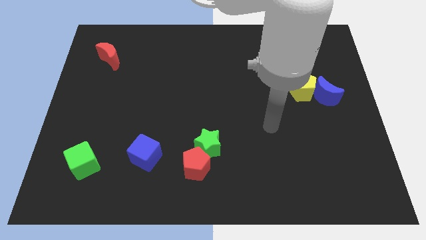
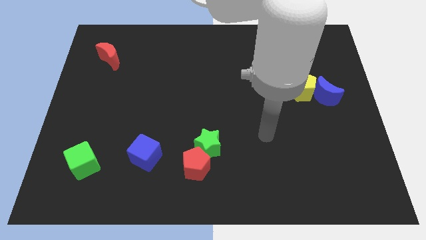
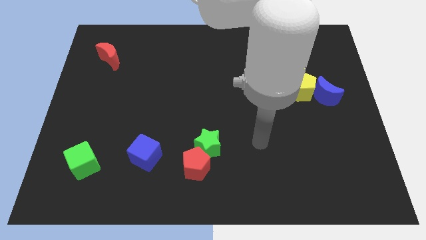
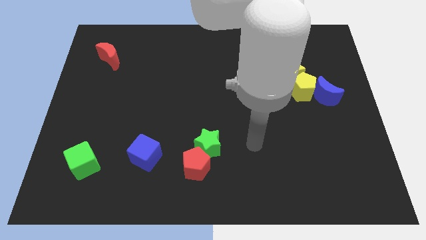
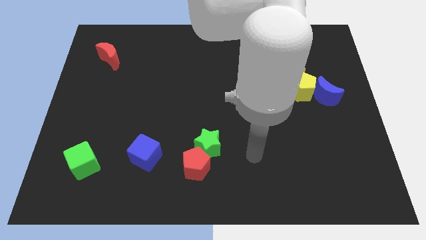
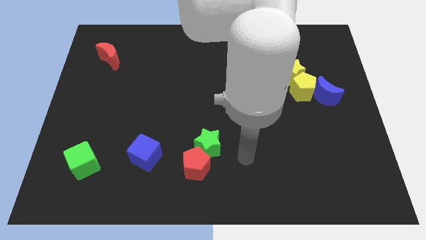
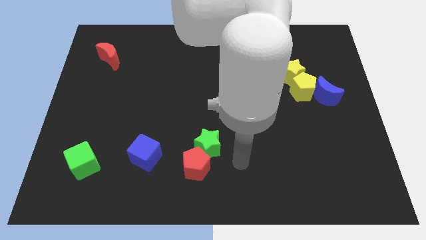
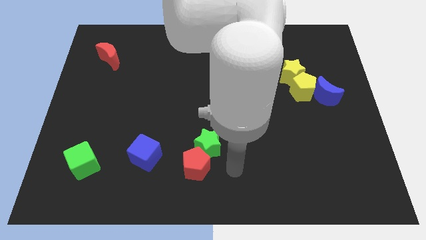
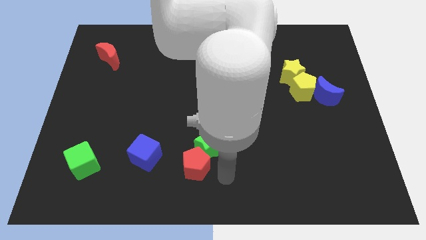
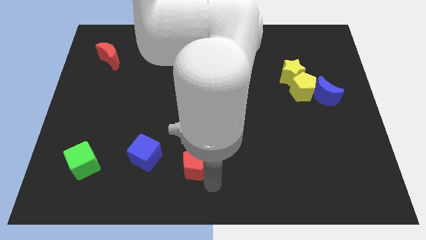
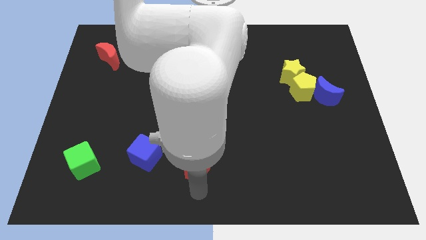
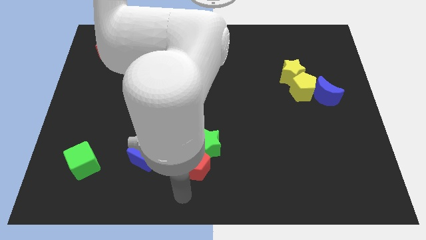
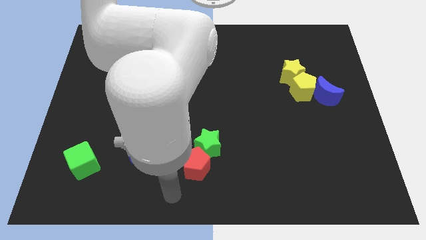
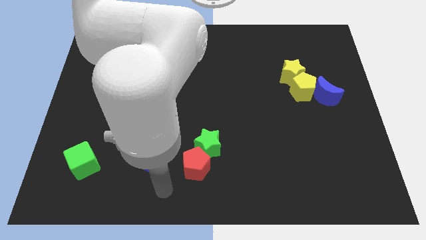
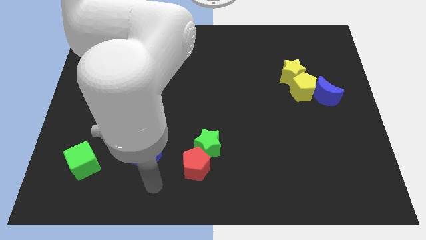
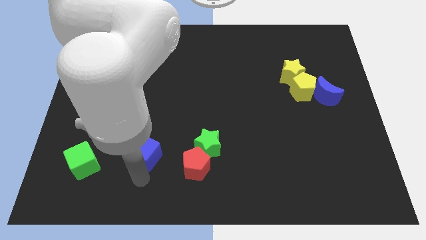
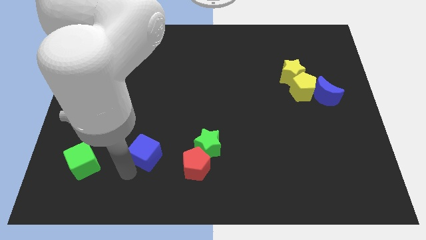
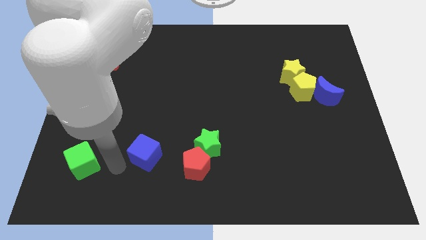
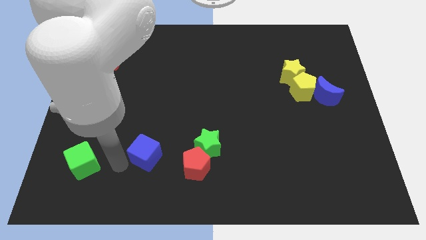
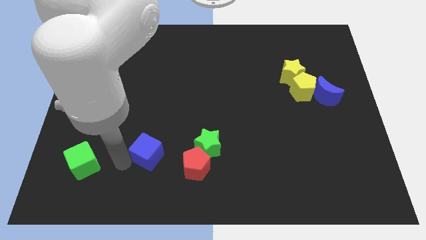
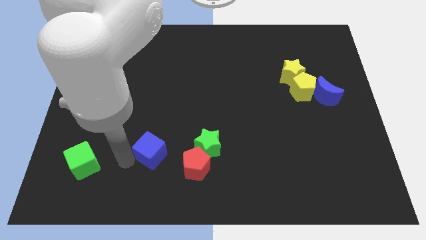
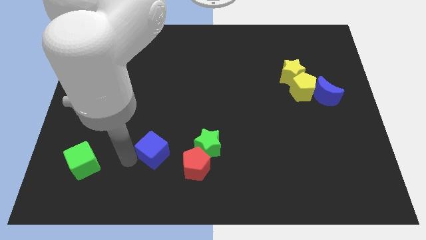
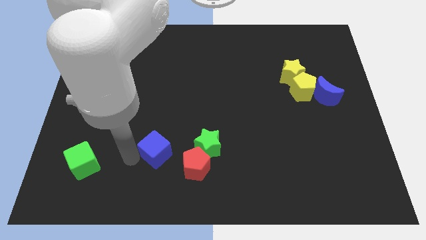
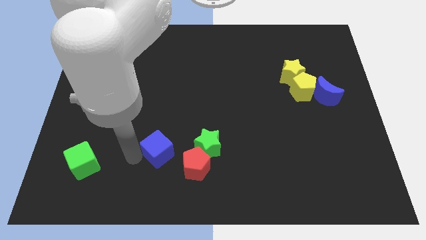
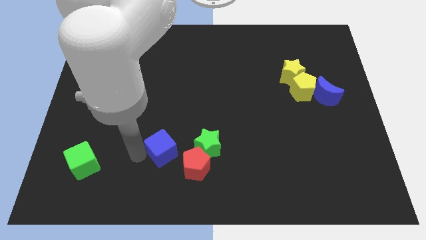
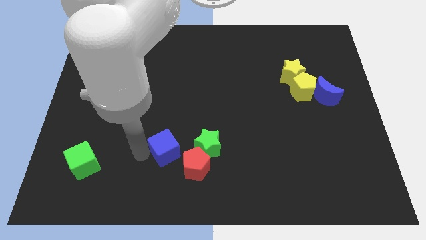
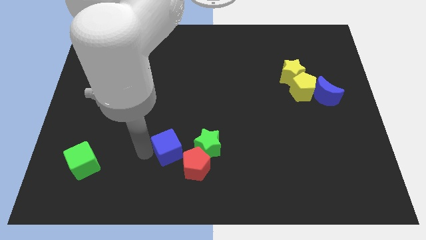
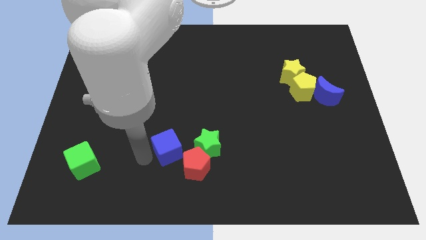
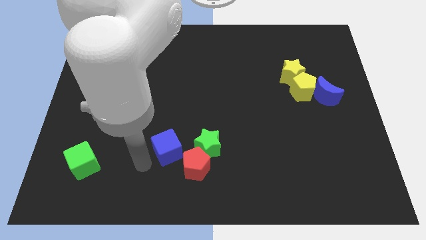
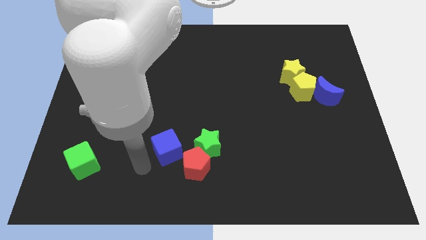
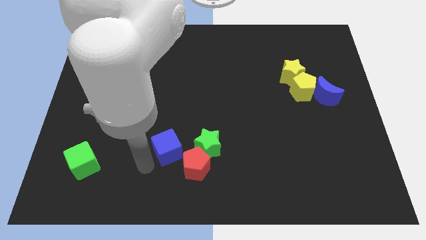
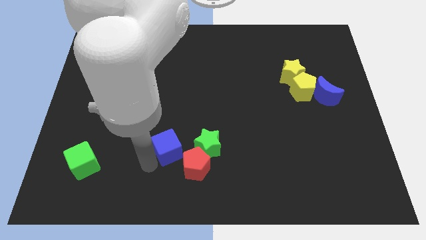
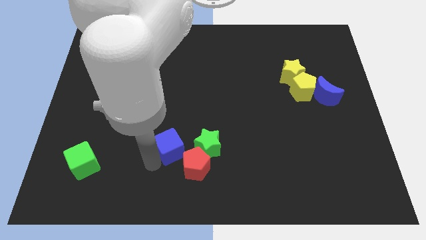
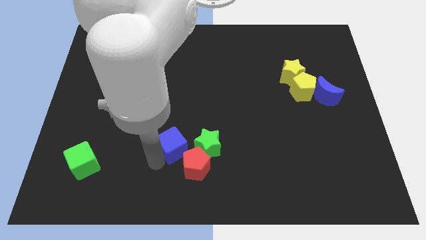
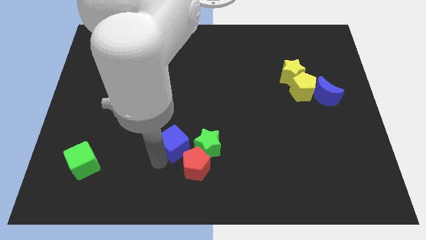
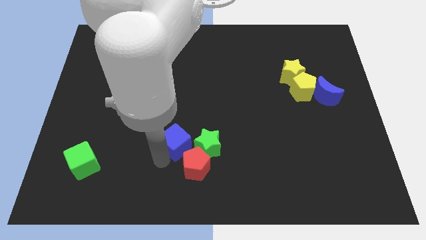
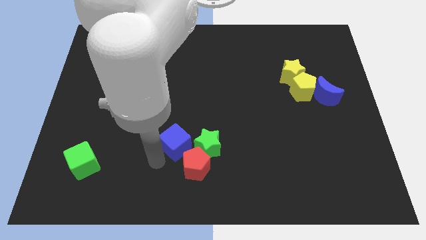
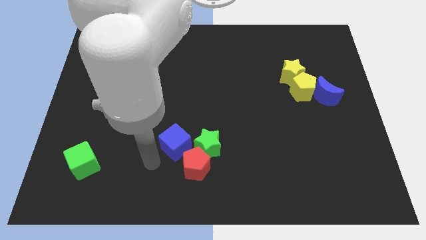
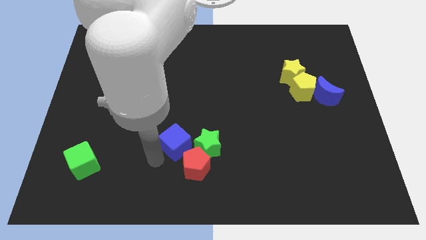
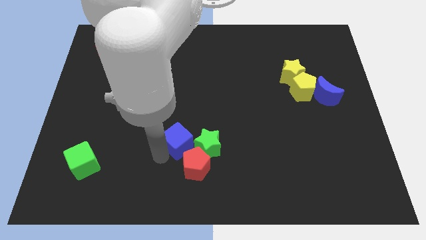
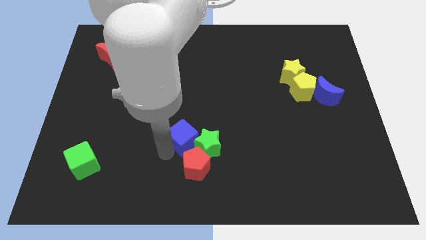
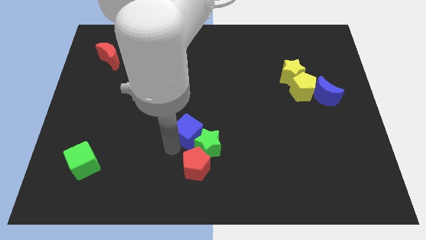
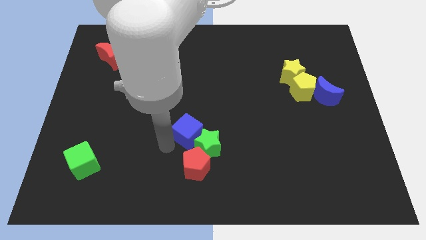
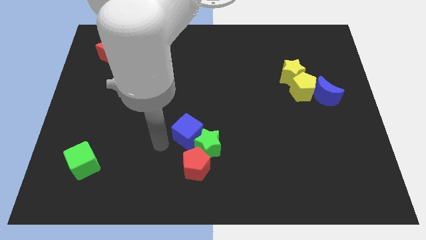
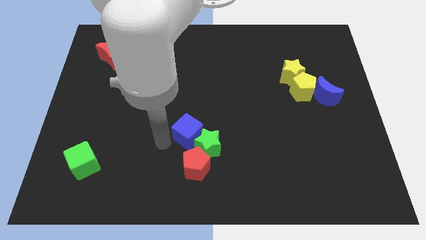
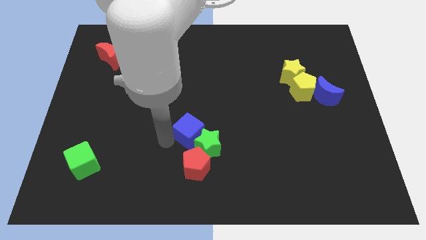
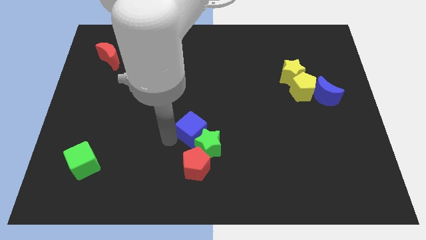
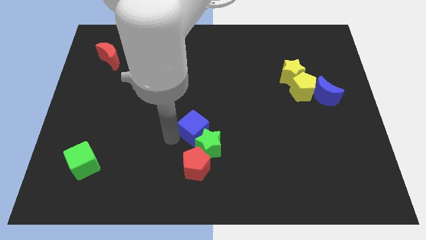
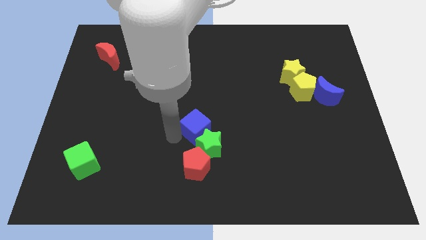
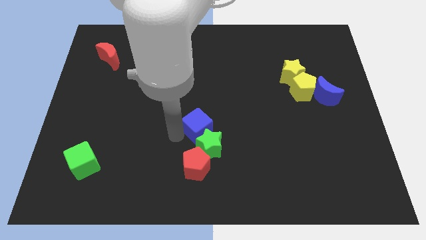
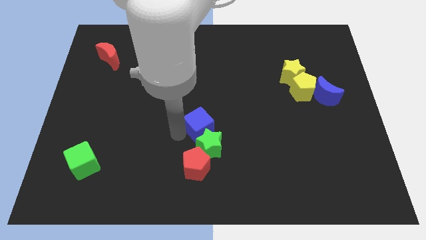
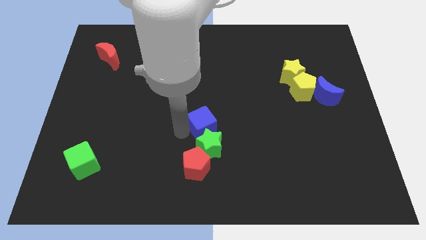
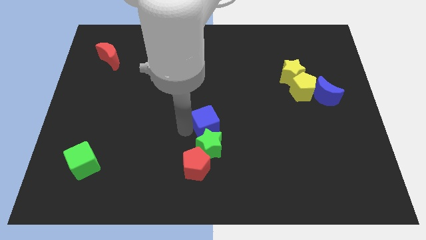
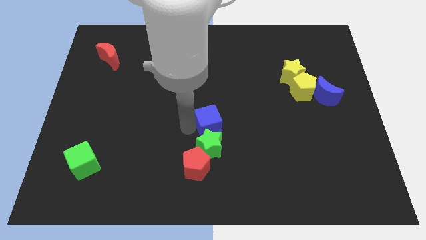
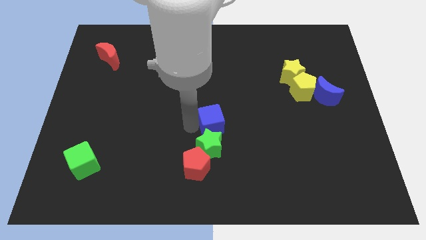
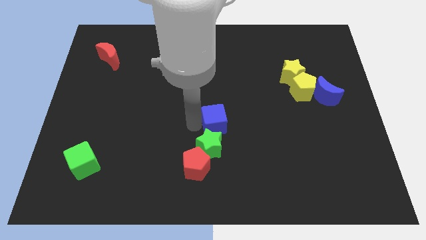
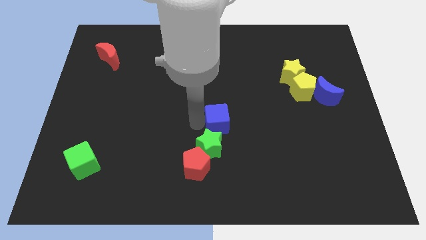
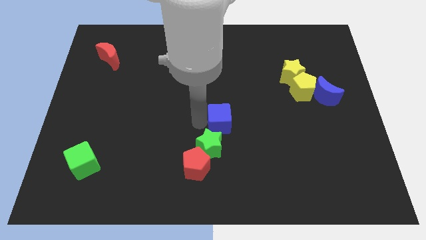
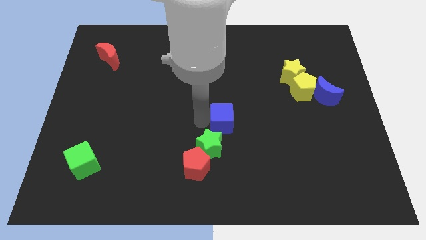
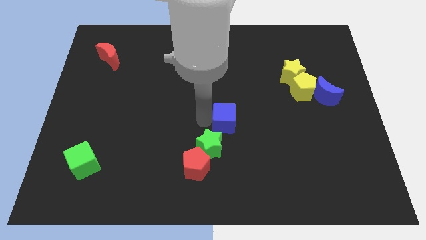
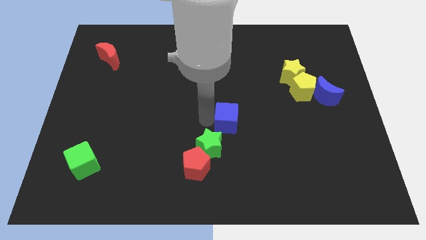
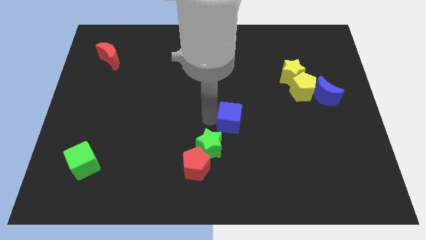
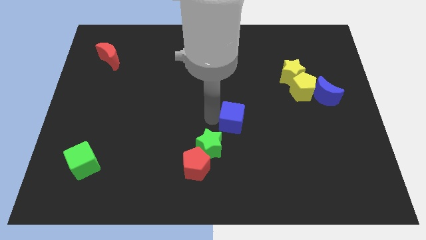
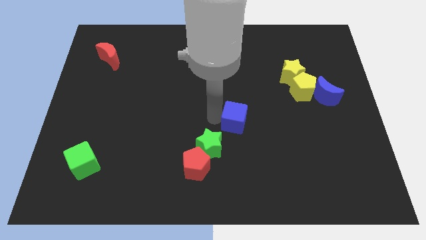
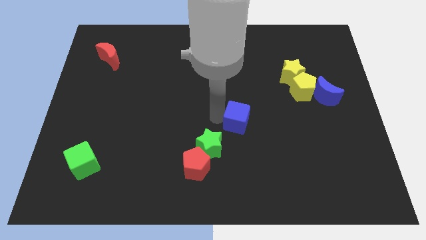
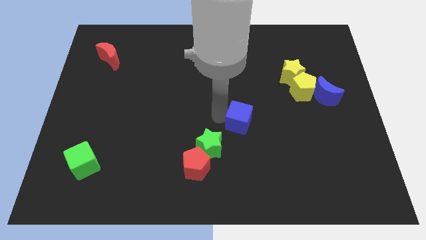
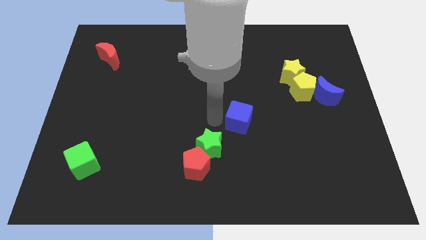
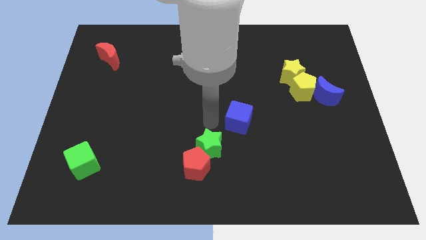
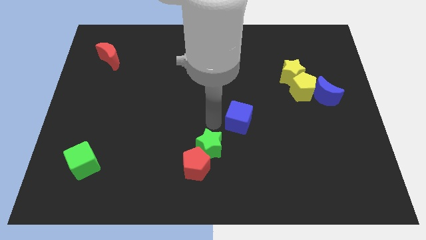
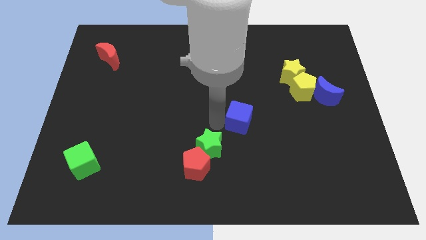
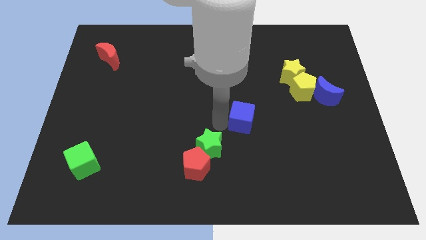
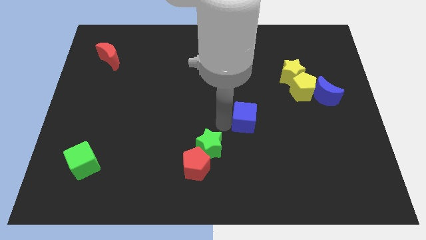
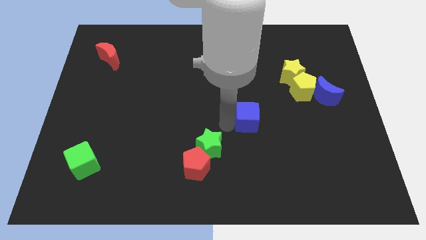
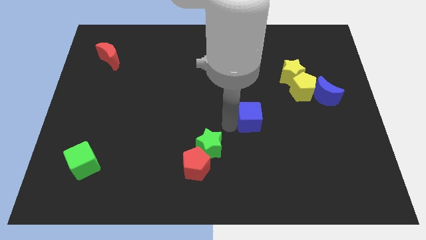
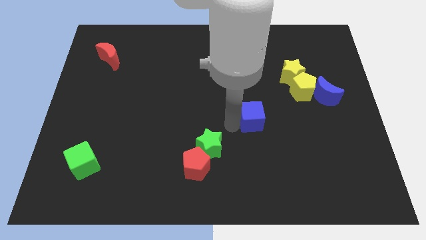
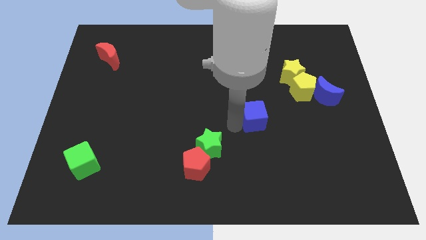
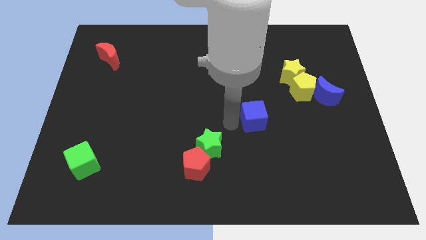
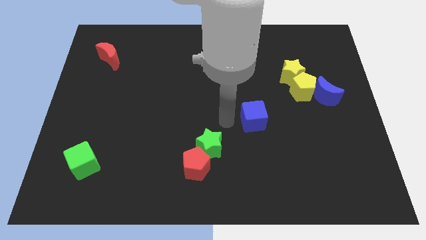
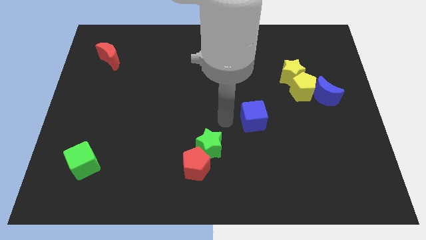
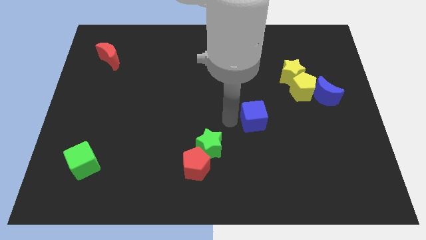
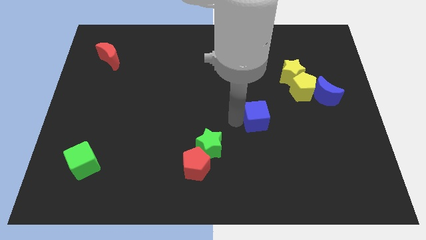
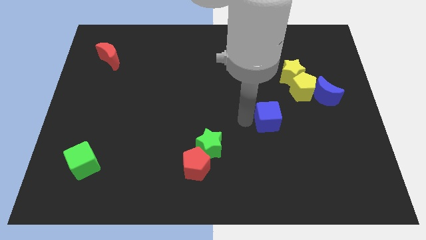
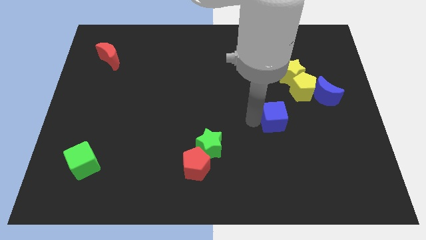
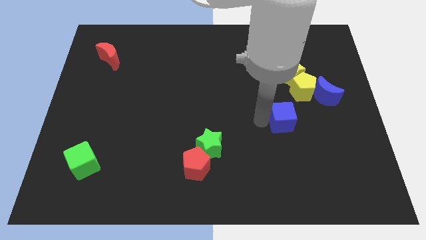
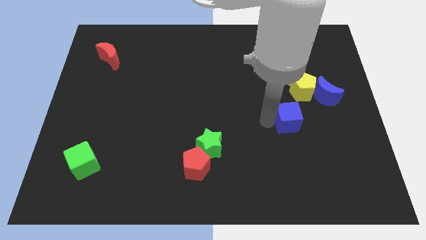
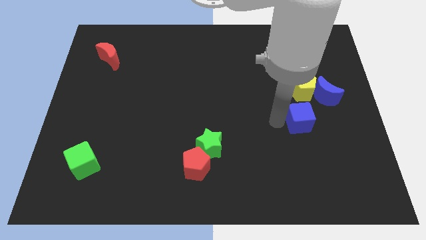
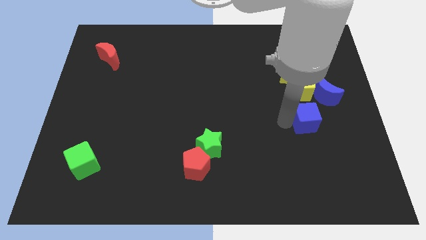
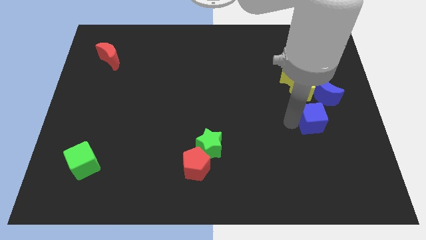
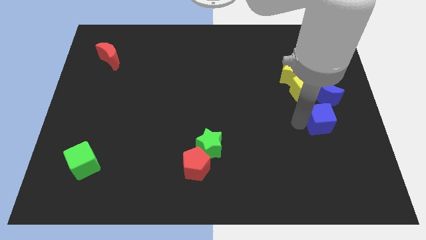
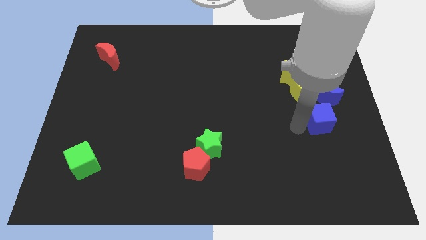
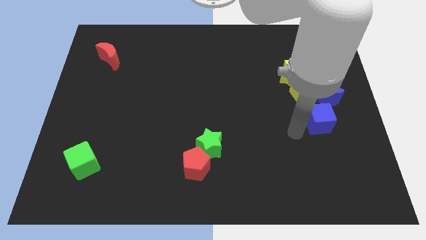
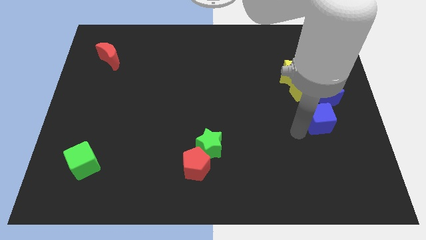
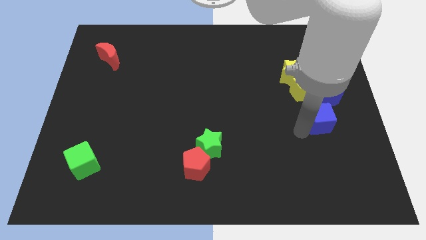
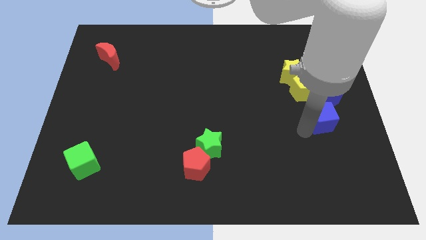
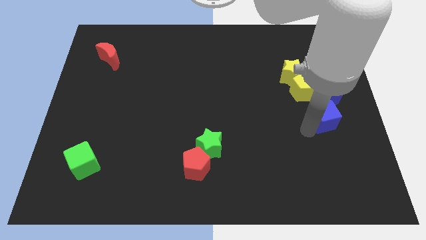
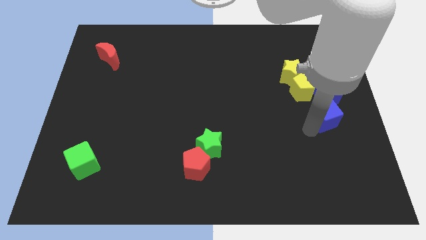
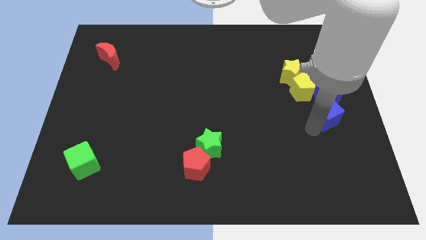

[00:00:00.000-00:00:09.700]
move the blue cube to the center right
